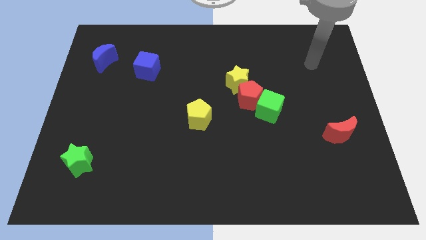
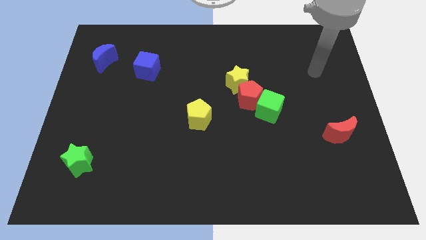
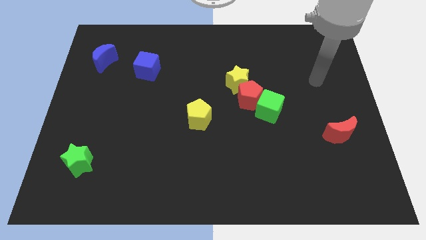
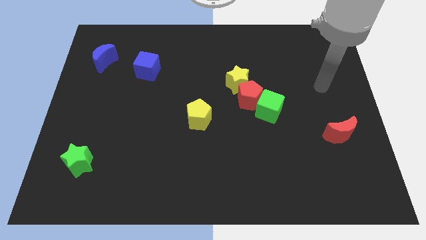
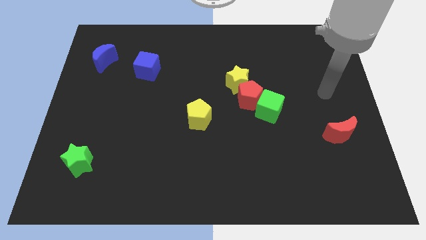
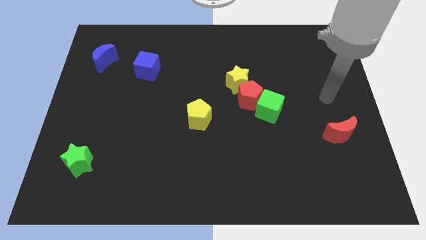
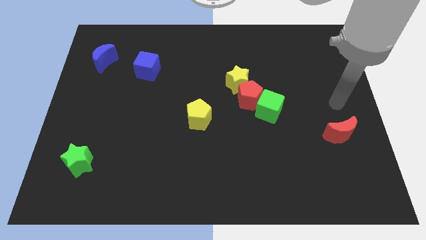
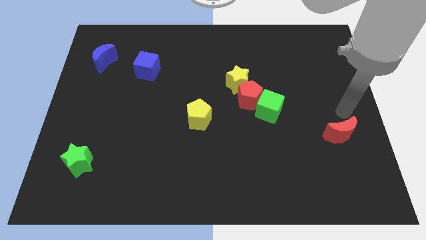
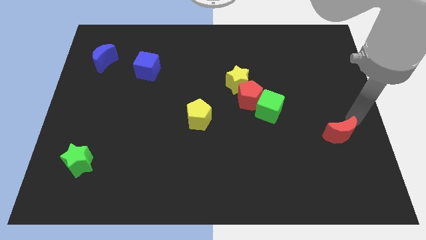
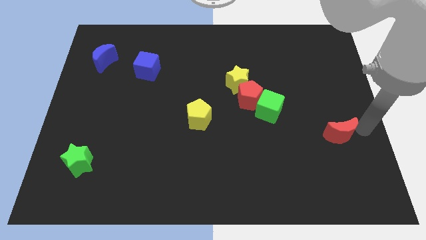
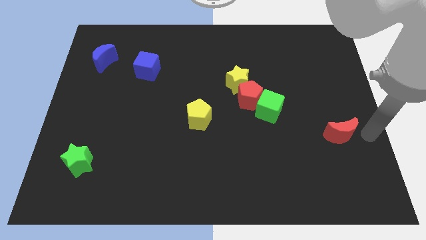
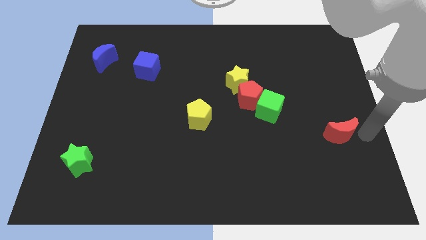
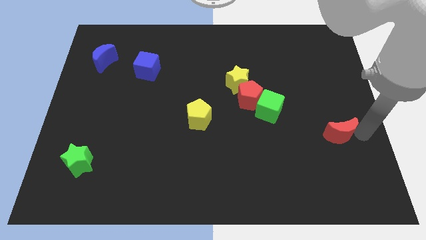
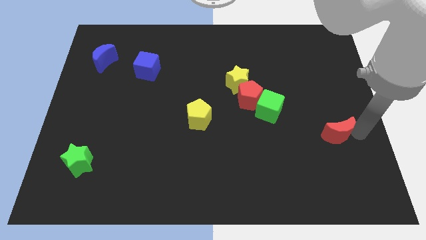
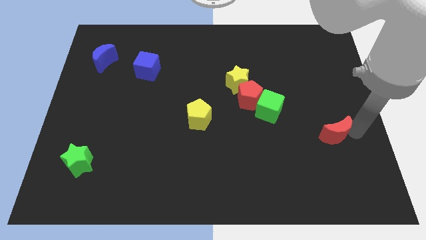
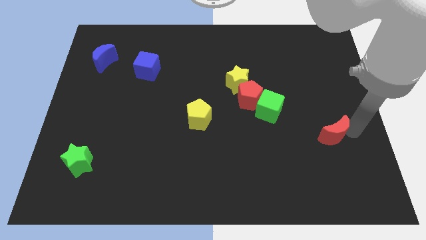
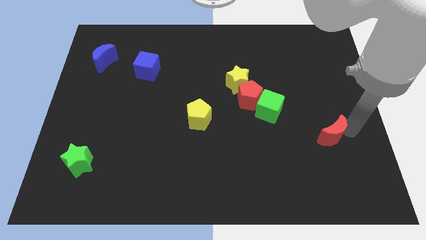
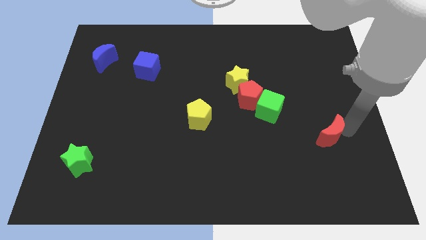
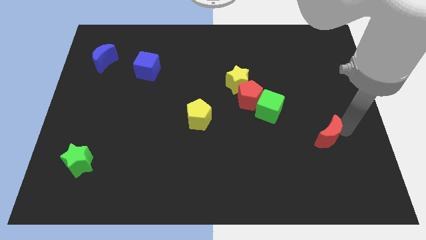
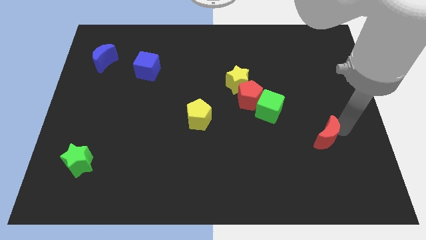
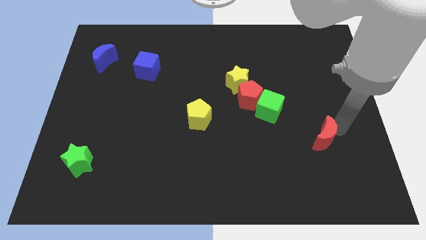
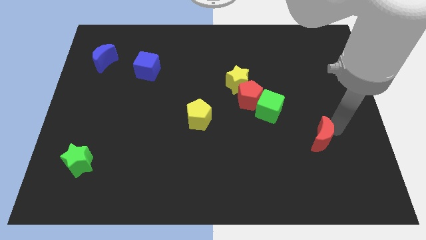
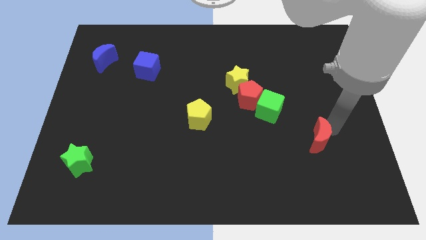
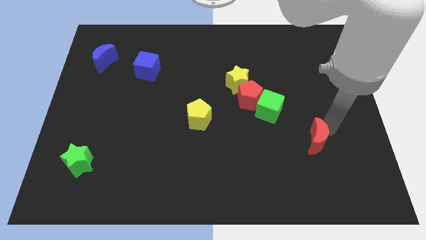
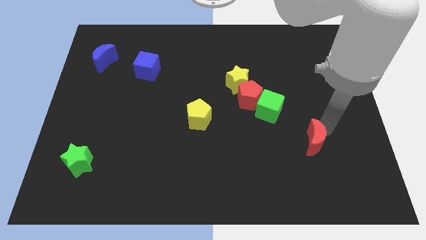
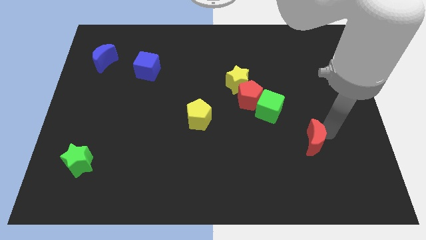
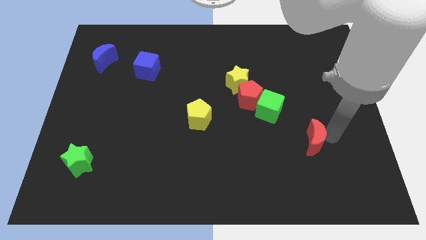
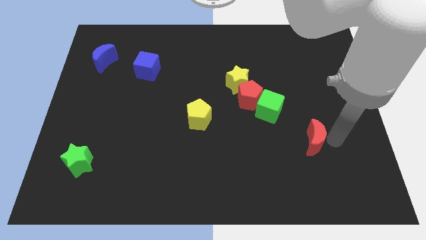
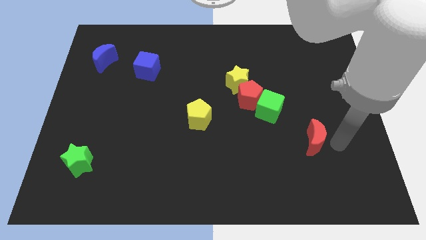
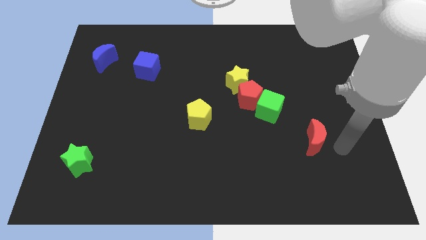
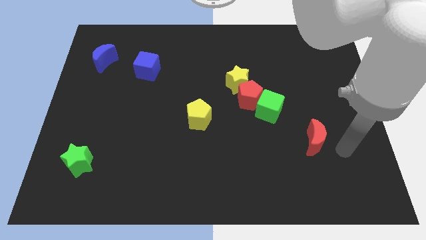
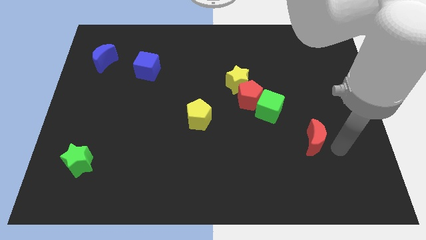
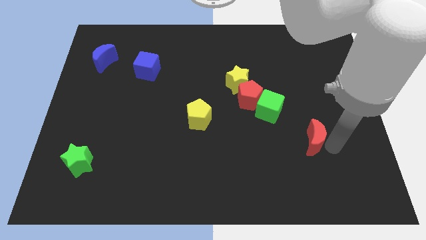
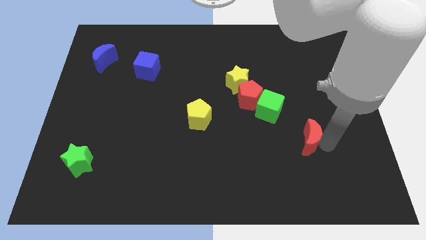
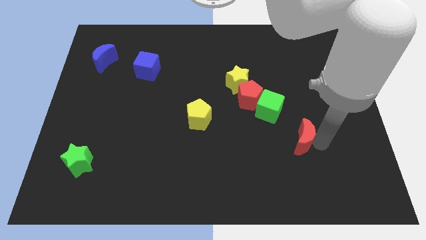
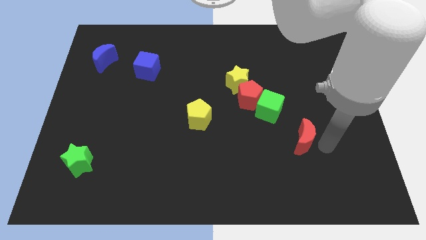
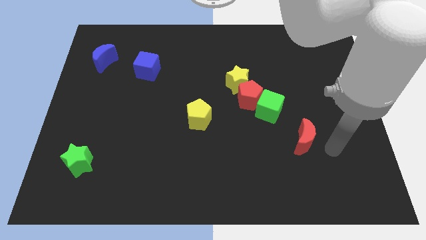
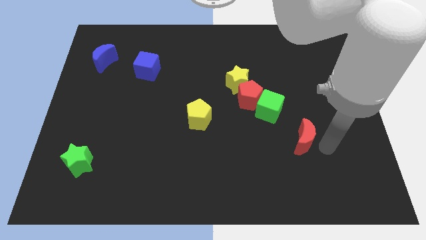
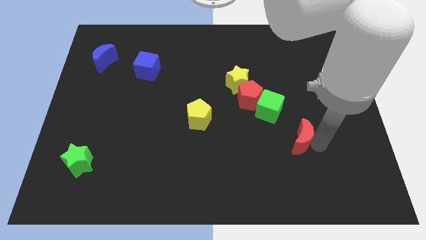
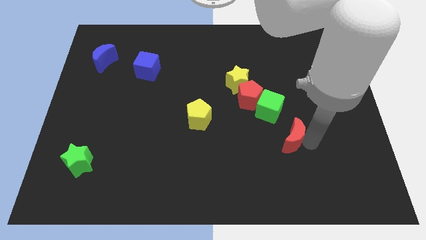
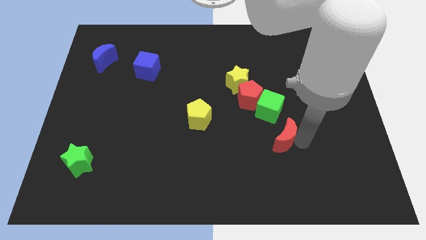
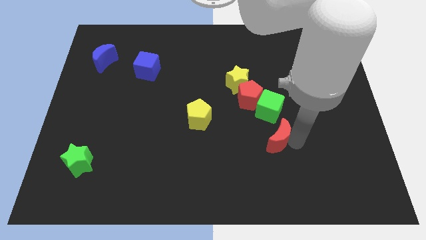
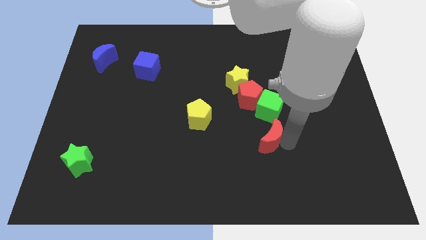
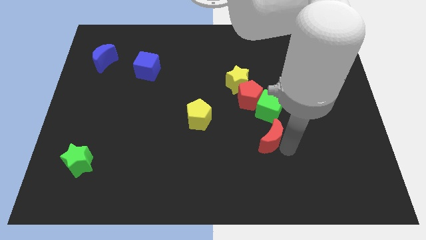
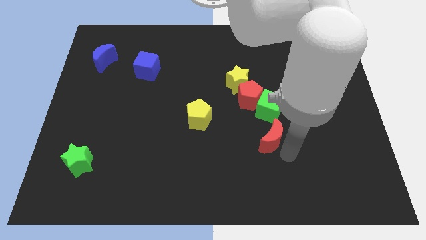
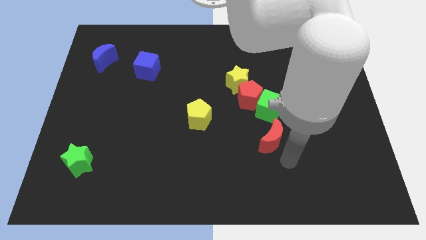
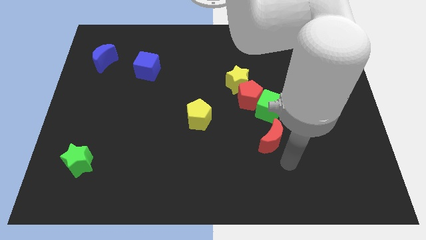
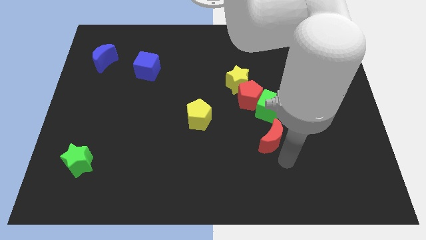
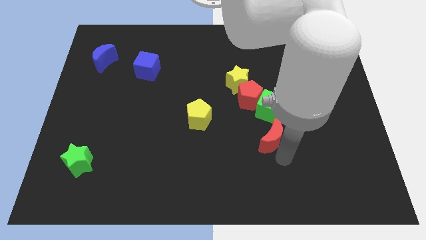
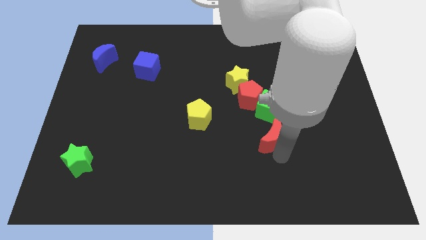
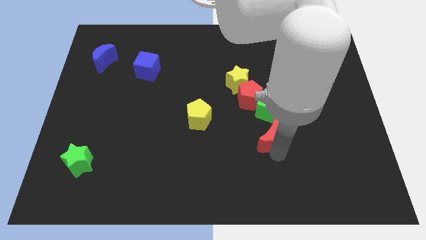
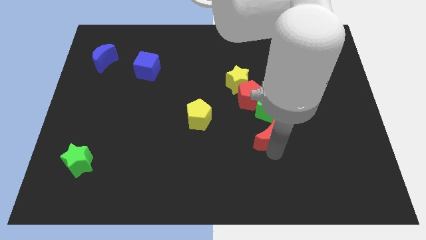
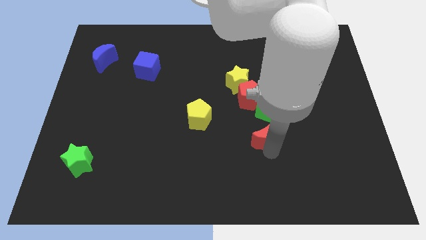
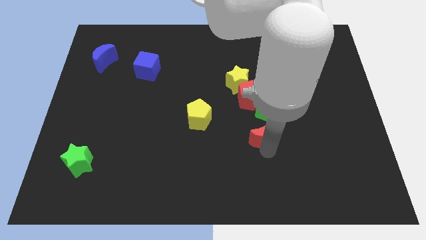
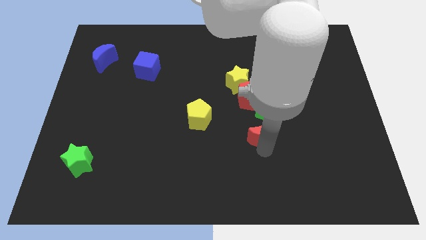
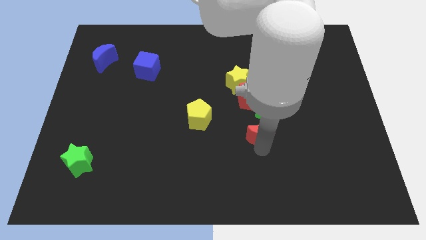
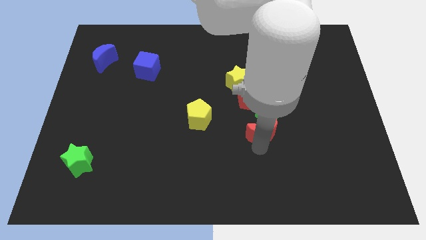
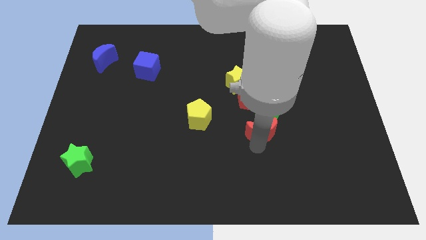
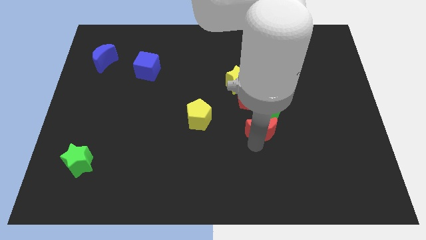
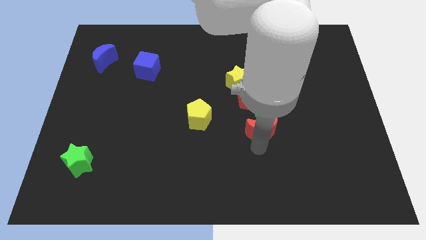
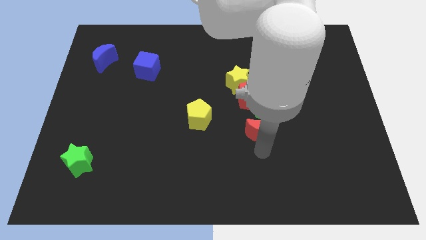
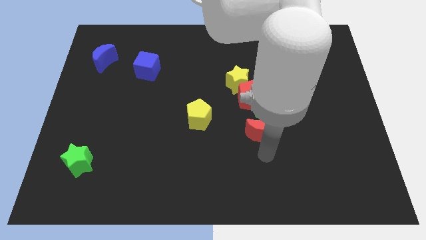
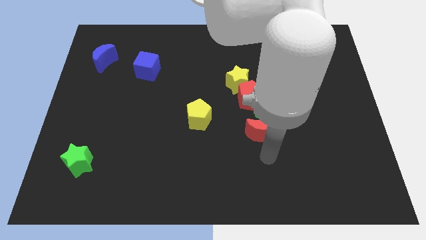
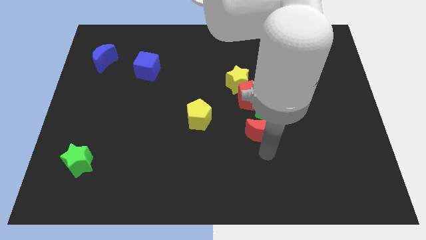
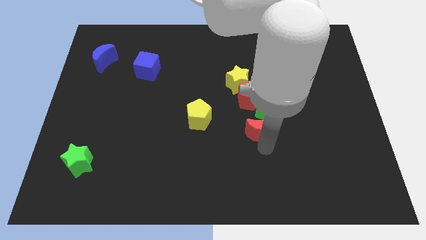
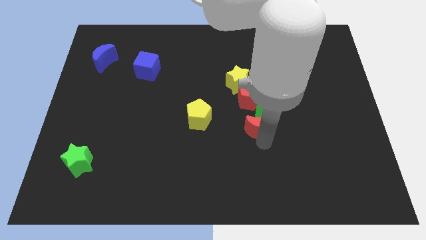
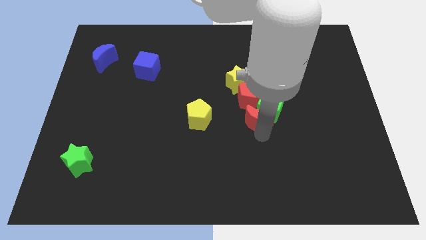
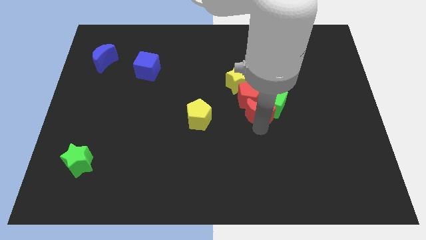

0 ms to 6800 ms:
push the red moon close to the red pentagon

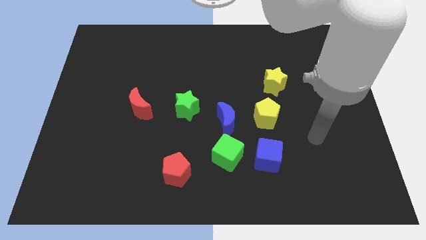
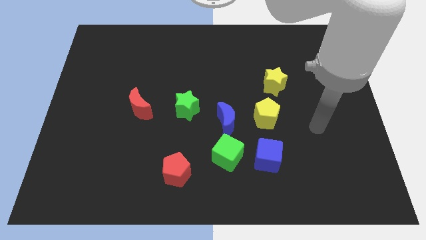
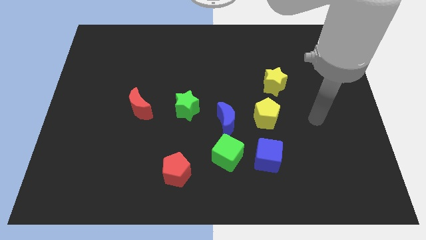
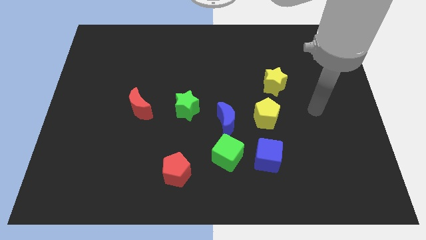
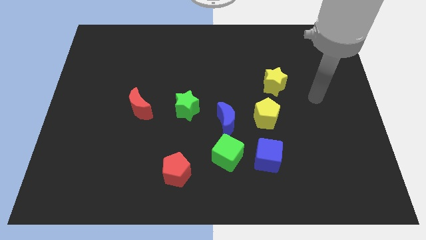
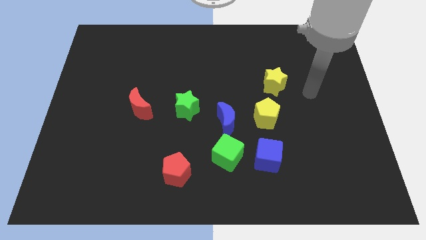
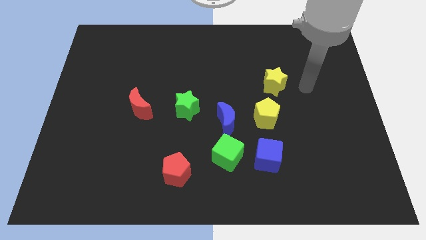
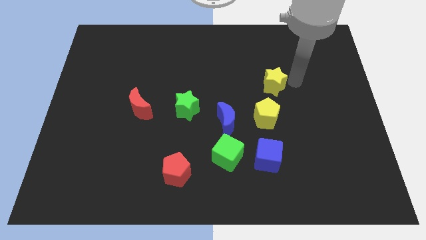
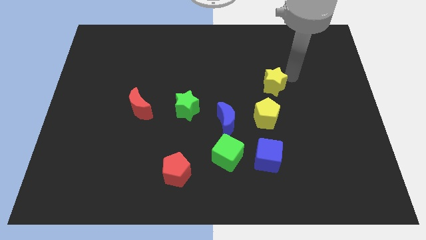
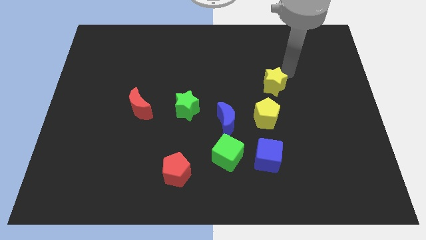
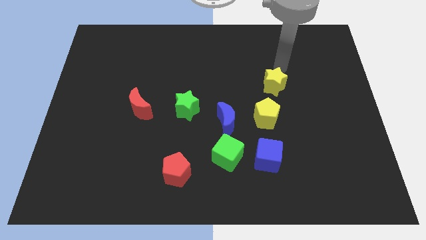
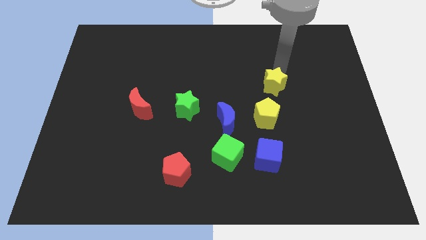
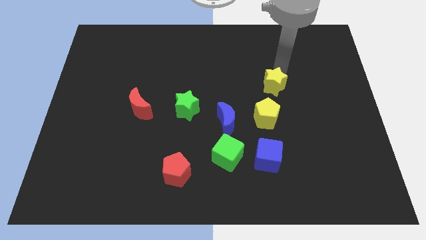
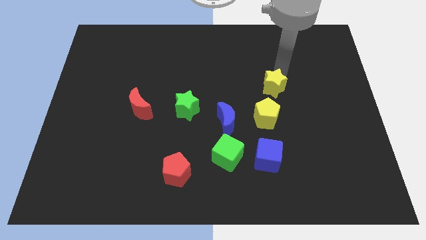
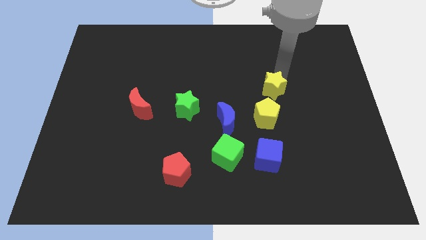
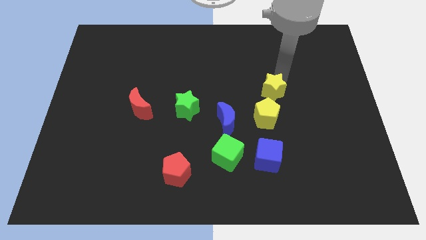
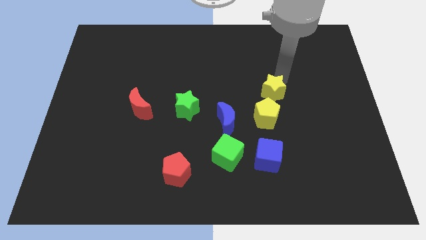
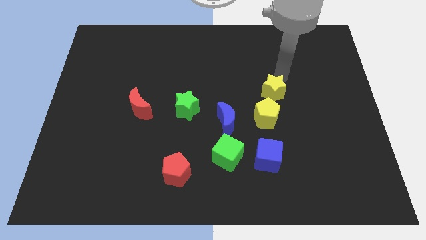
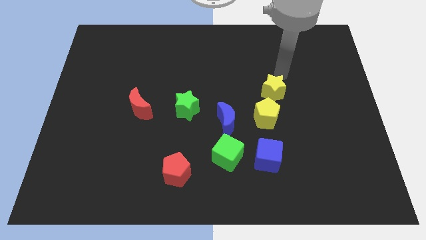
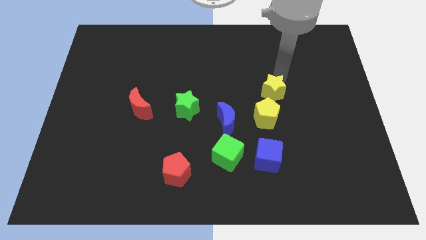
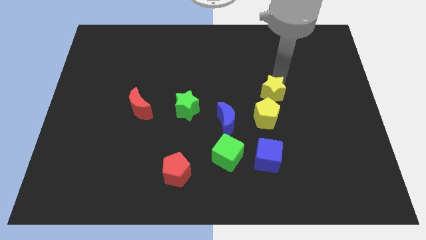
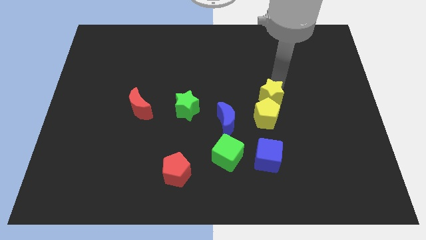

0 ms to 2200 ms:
put the yellow star towards the yellow pentagon
